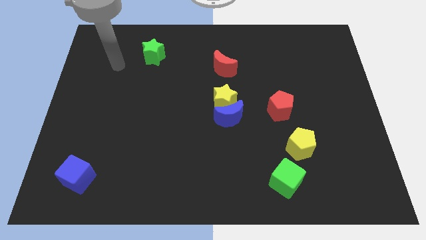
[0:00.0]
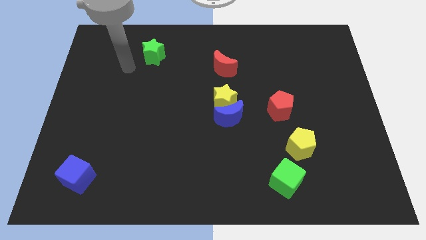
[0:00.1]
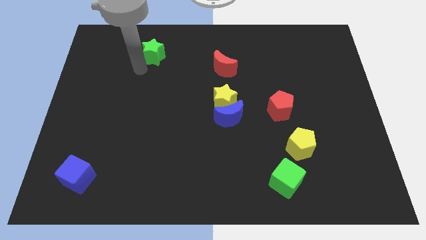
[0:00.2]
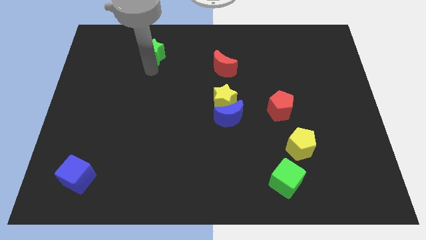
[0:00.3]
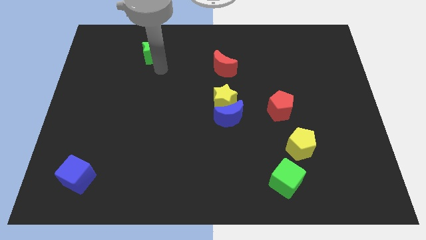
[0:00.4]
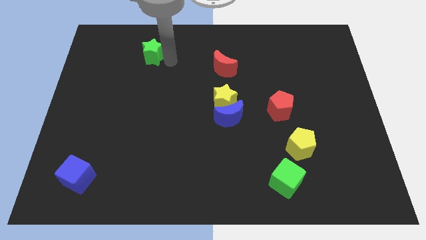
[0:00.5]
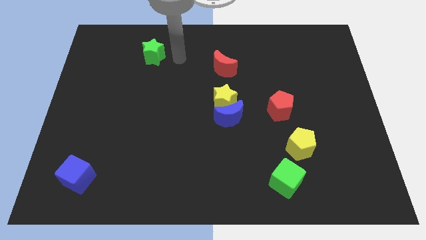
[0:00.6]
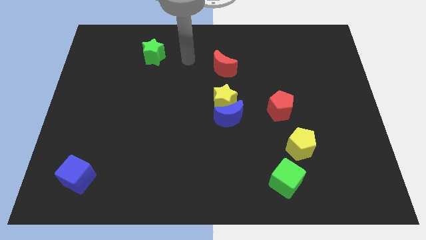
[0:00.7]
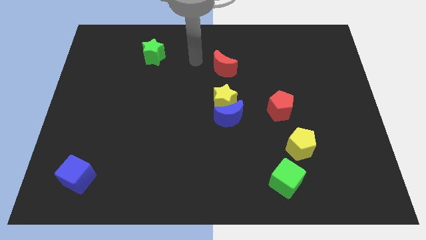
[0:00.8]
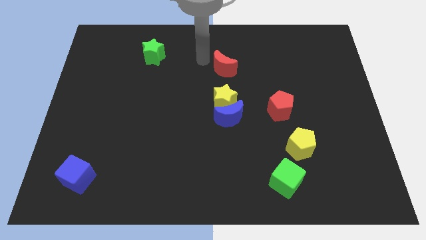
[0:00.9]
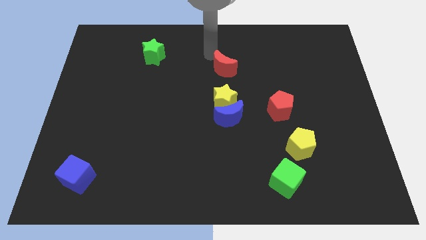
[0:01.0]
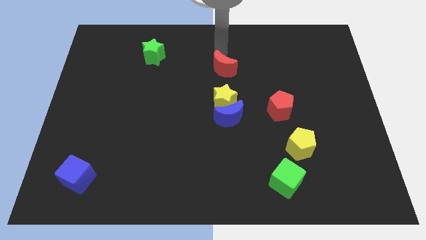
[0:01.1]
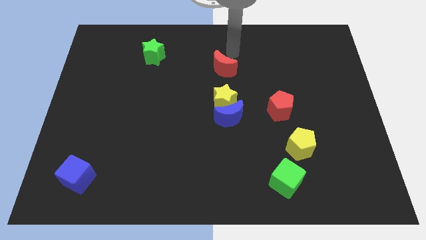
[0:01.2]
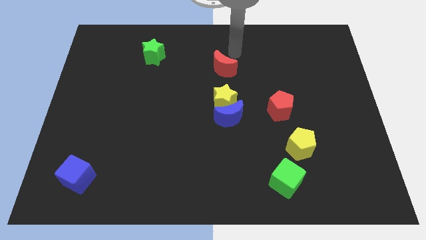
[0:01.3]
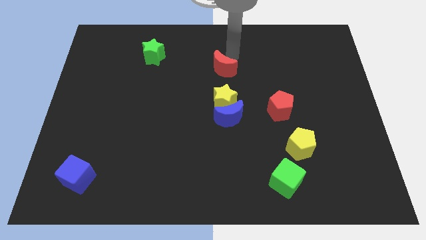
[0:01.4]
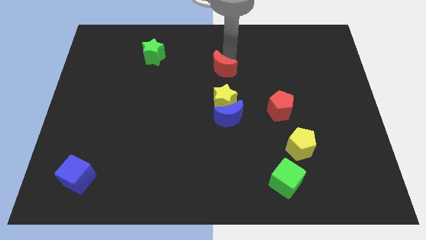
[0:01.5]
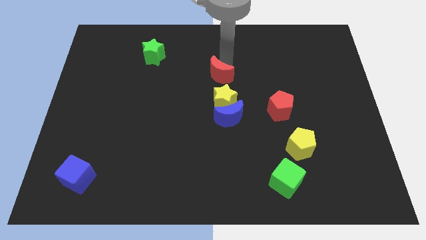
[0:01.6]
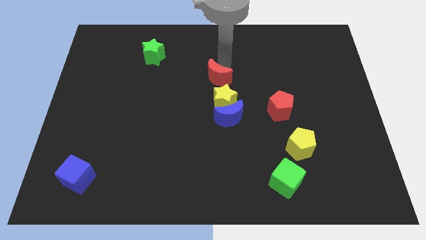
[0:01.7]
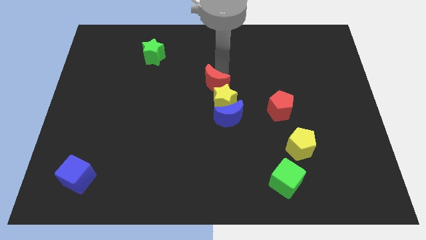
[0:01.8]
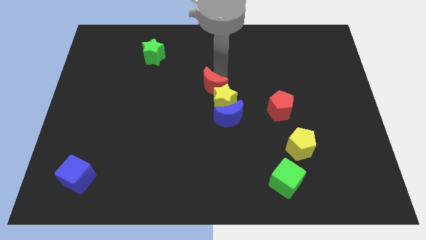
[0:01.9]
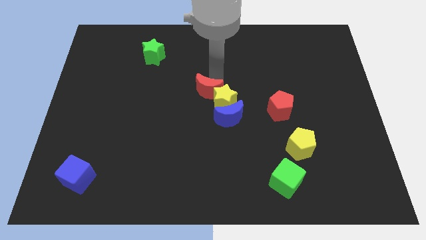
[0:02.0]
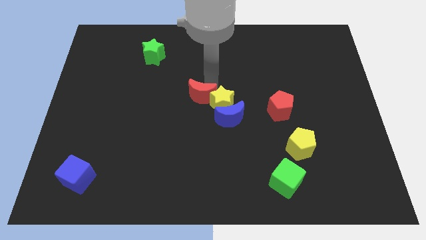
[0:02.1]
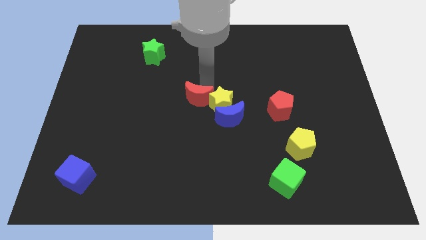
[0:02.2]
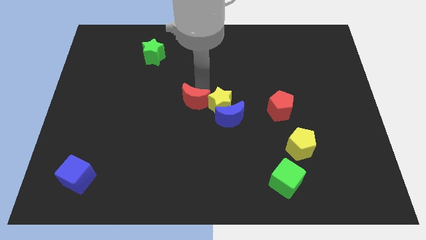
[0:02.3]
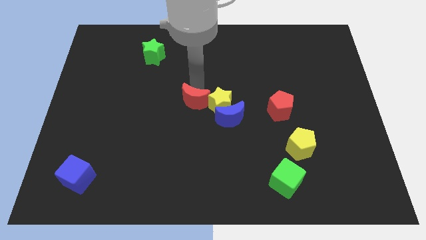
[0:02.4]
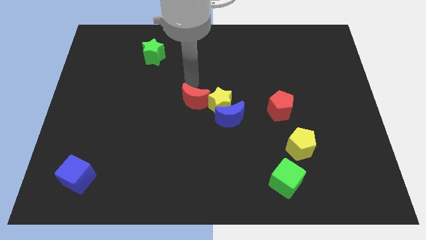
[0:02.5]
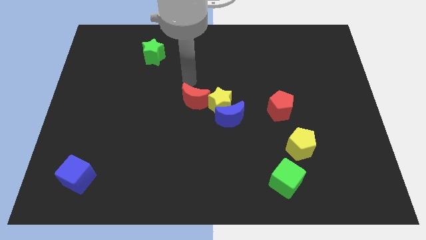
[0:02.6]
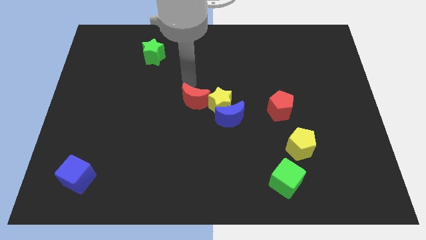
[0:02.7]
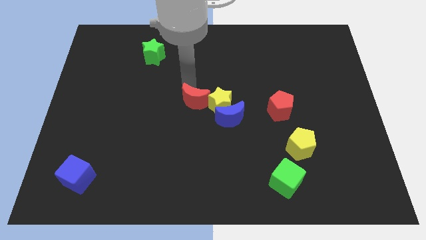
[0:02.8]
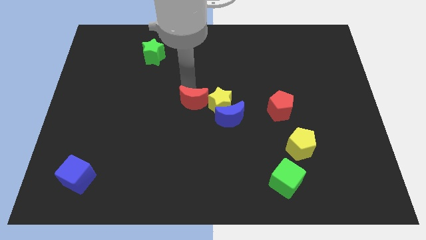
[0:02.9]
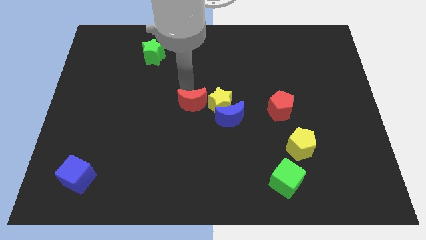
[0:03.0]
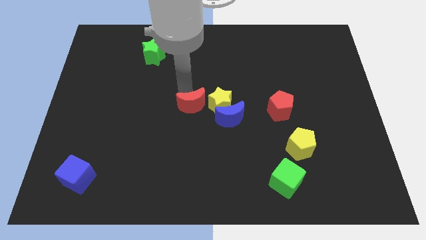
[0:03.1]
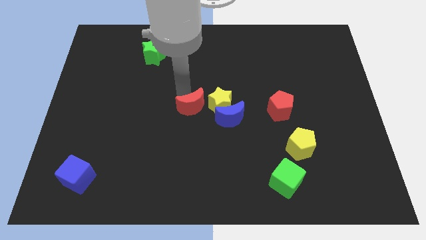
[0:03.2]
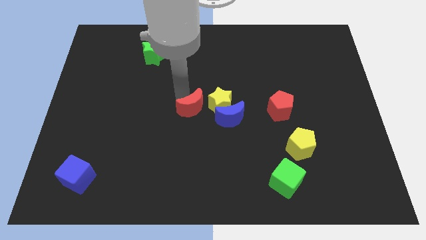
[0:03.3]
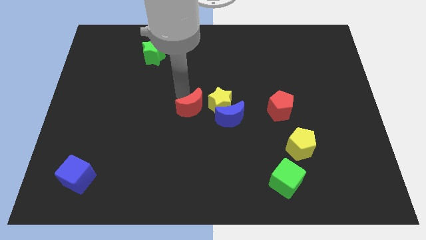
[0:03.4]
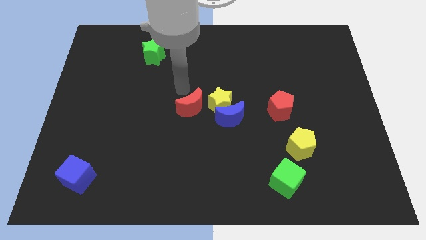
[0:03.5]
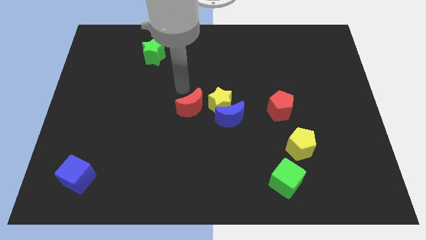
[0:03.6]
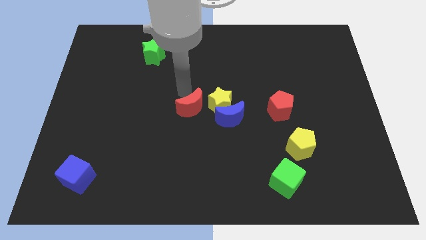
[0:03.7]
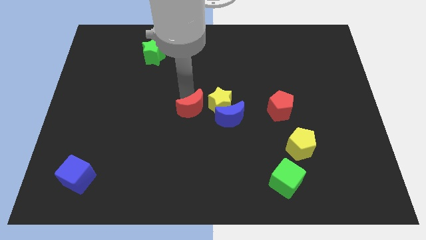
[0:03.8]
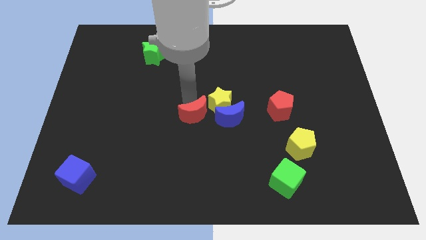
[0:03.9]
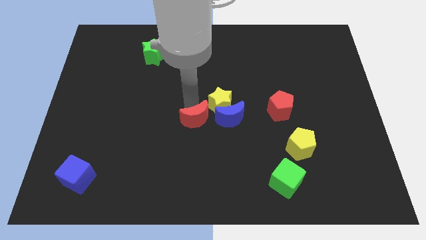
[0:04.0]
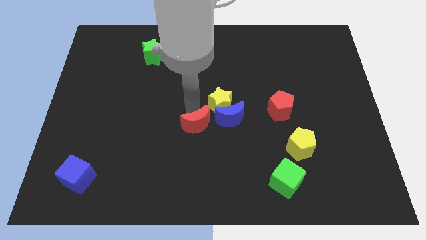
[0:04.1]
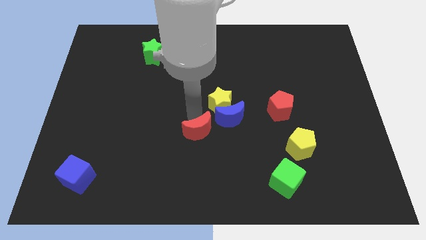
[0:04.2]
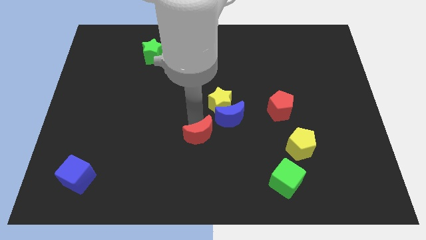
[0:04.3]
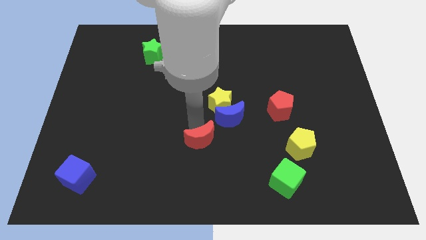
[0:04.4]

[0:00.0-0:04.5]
slide the red moon downwards

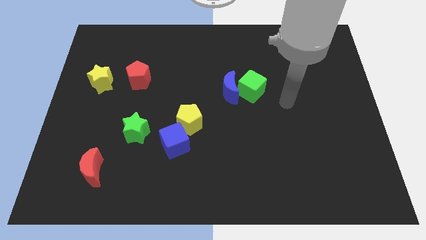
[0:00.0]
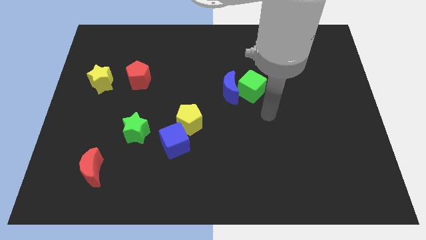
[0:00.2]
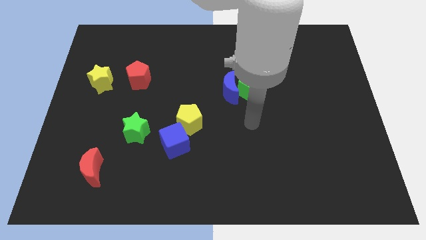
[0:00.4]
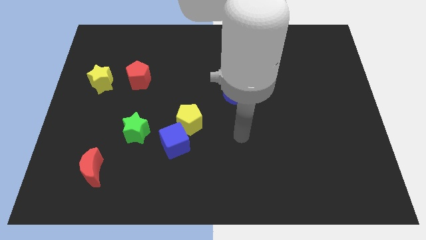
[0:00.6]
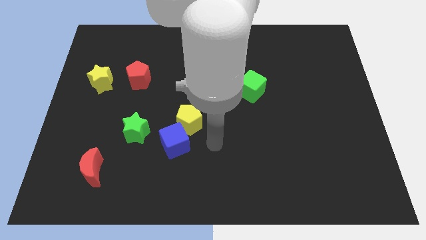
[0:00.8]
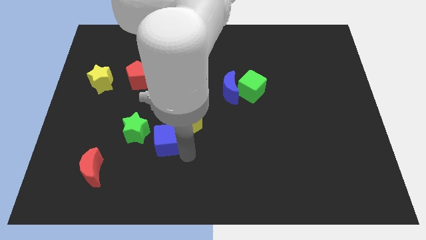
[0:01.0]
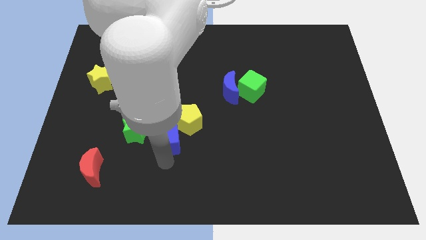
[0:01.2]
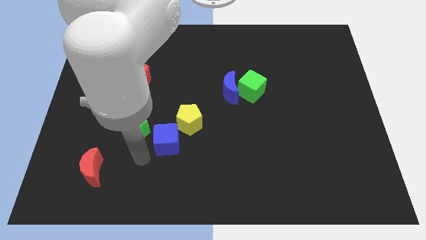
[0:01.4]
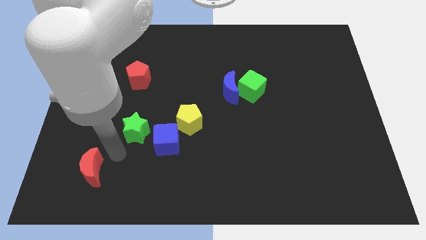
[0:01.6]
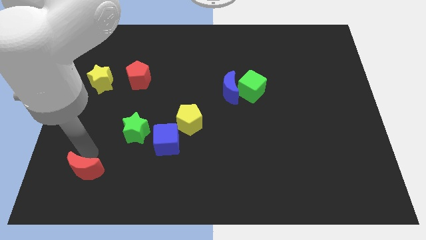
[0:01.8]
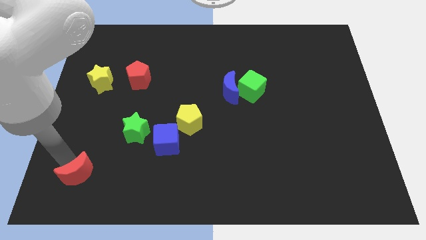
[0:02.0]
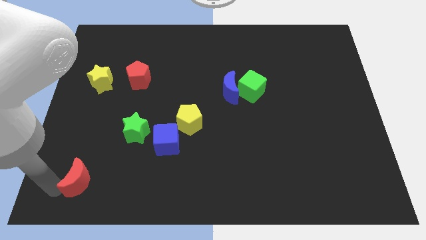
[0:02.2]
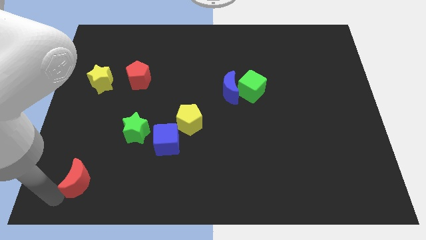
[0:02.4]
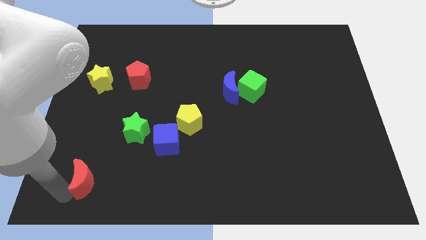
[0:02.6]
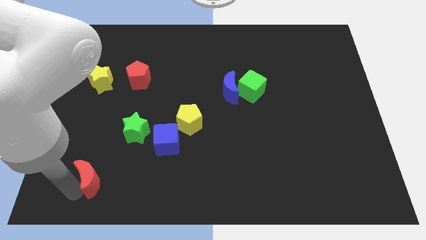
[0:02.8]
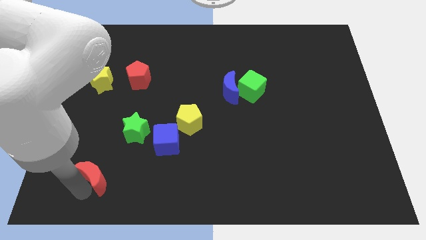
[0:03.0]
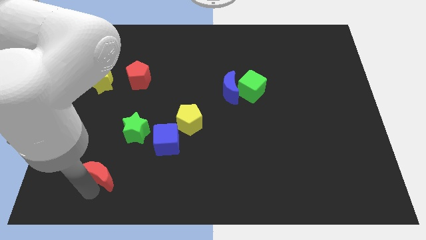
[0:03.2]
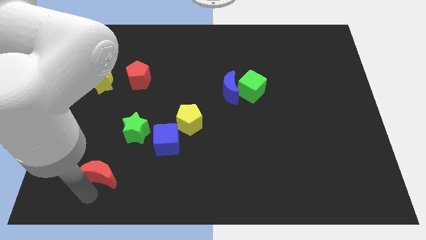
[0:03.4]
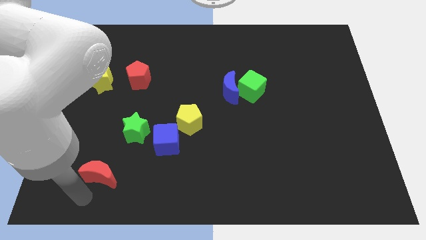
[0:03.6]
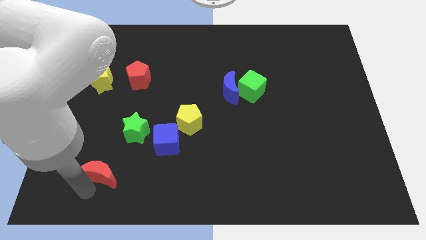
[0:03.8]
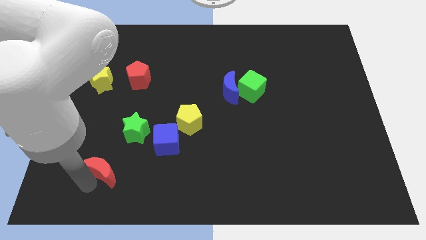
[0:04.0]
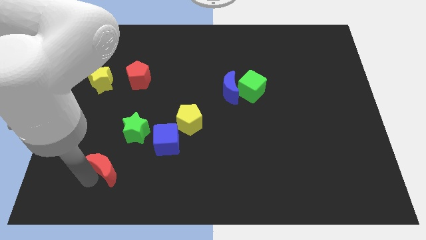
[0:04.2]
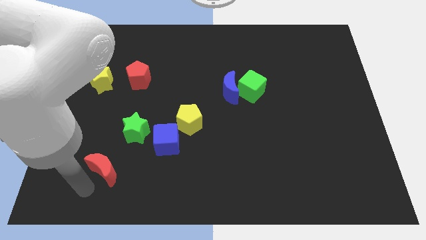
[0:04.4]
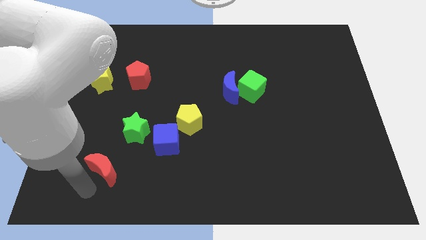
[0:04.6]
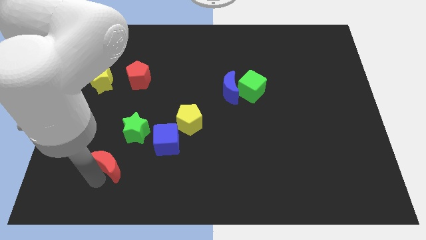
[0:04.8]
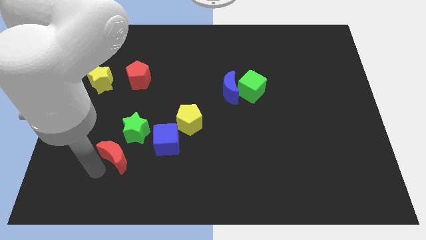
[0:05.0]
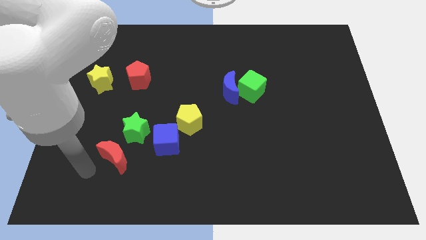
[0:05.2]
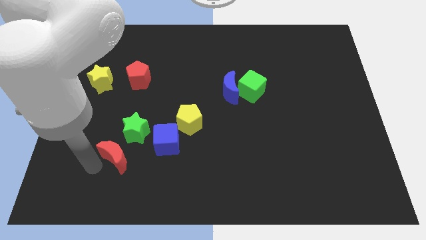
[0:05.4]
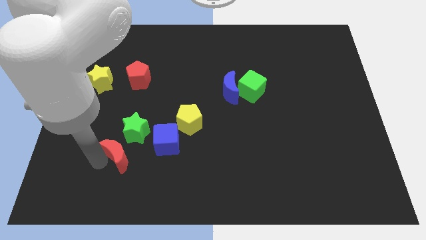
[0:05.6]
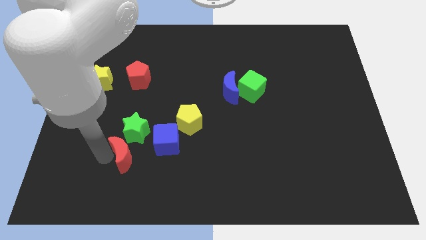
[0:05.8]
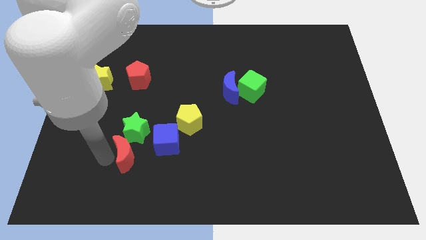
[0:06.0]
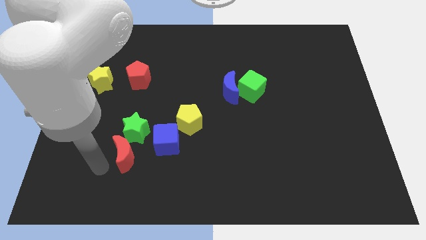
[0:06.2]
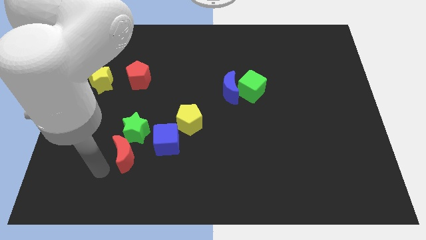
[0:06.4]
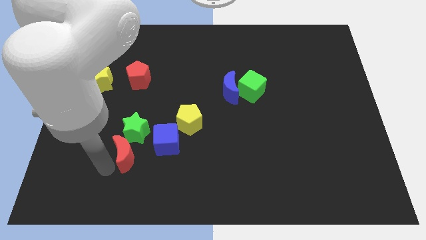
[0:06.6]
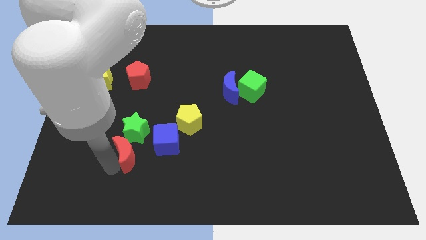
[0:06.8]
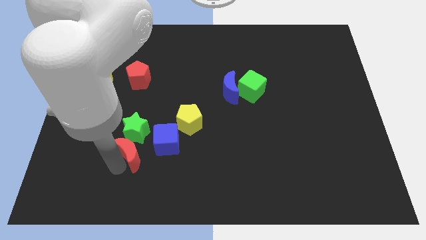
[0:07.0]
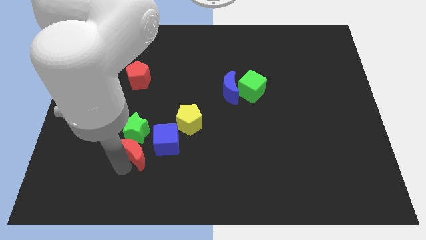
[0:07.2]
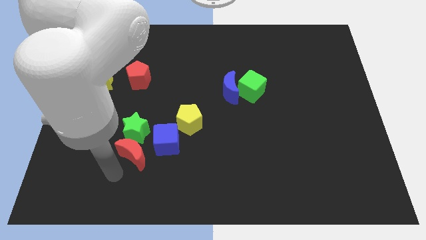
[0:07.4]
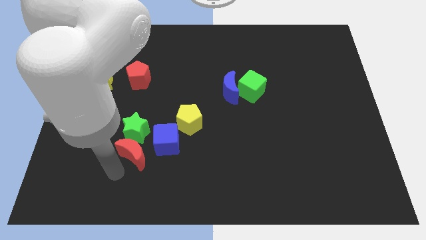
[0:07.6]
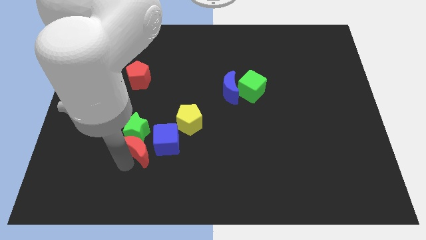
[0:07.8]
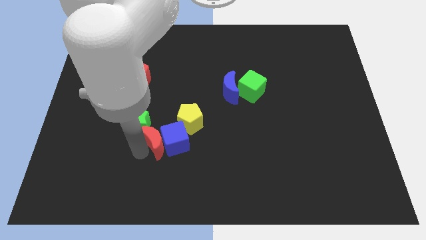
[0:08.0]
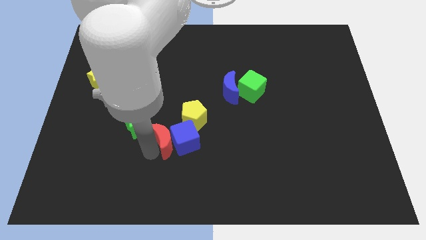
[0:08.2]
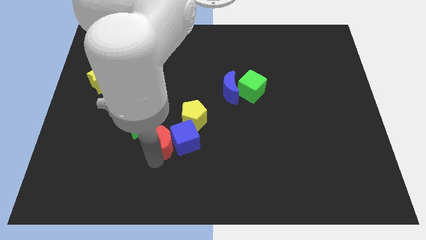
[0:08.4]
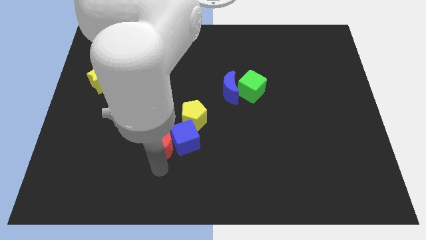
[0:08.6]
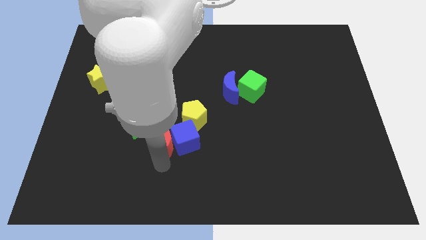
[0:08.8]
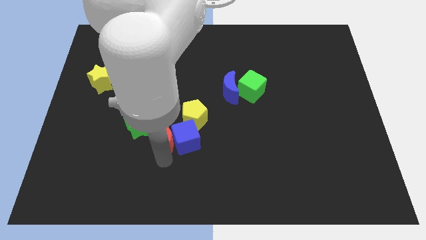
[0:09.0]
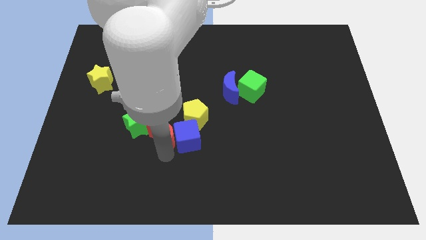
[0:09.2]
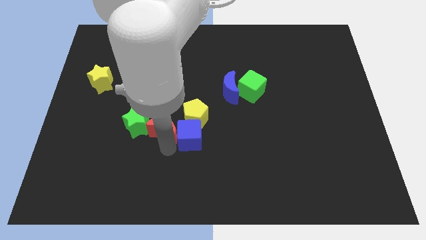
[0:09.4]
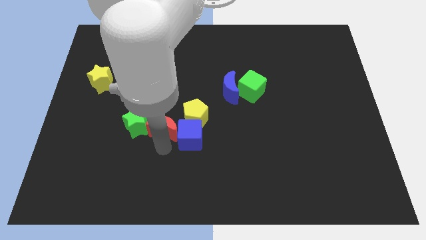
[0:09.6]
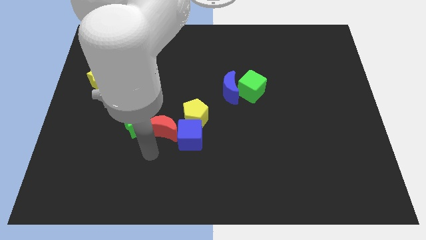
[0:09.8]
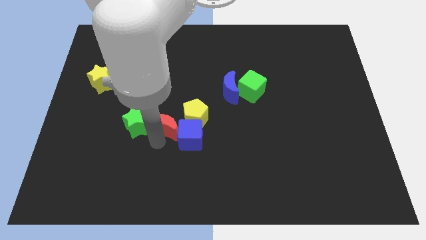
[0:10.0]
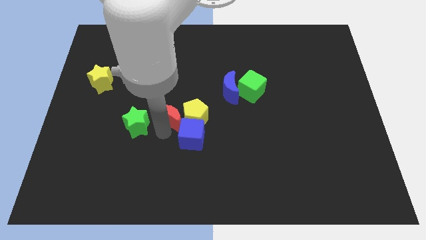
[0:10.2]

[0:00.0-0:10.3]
slide the red moon diagonally up and to the right
